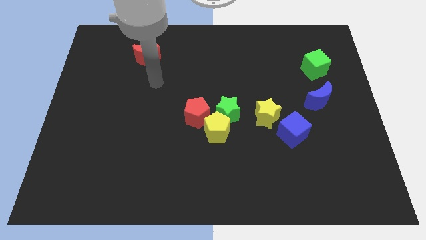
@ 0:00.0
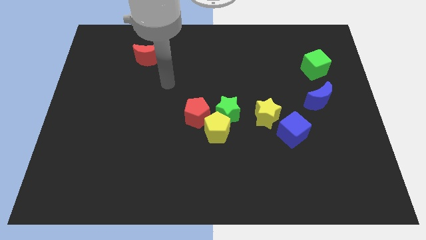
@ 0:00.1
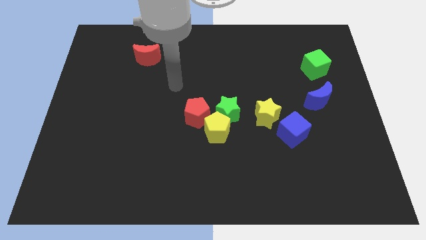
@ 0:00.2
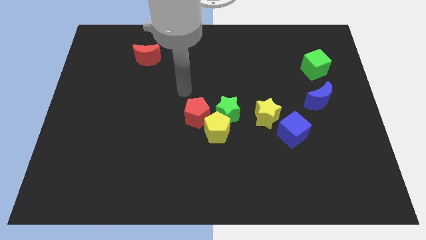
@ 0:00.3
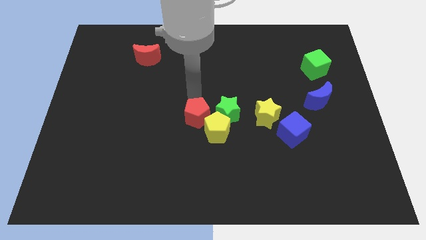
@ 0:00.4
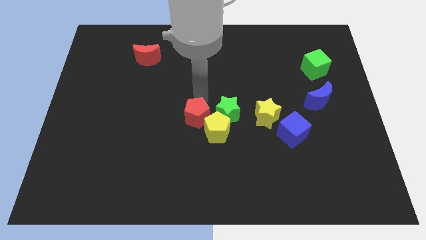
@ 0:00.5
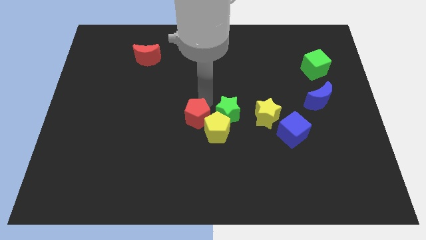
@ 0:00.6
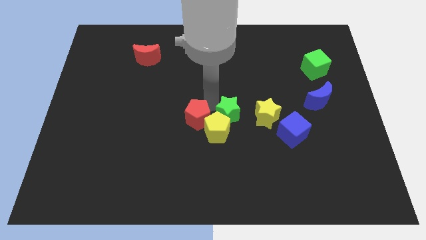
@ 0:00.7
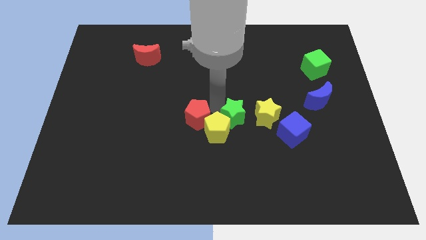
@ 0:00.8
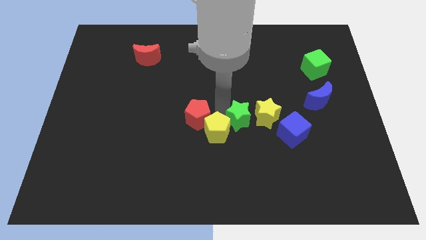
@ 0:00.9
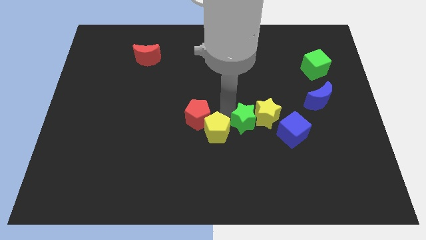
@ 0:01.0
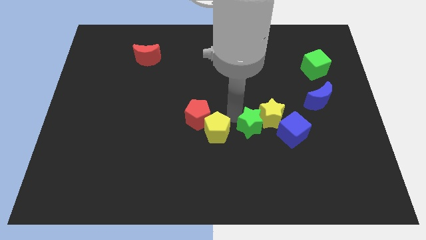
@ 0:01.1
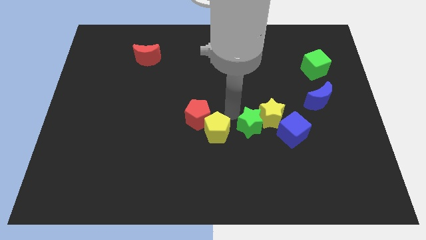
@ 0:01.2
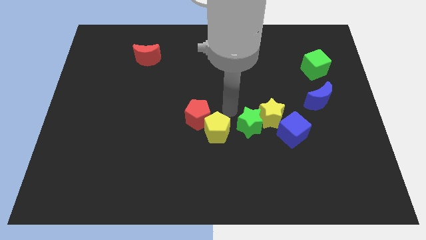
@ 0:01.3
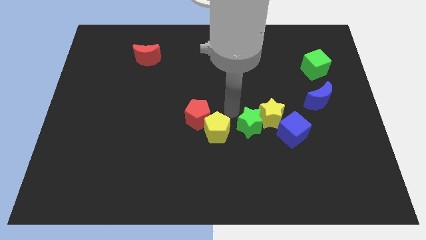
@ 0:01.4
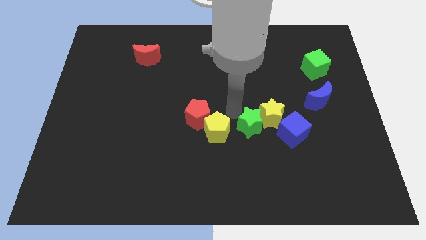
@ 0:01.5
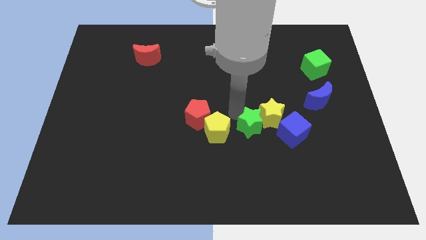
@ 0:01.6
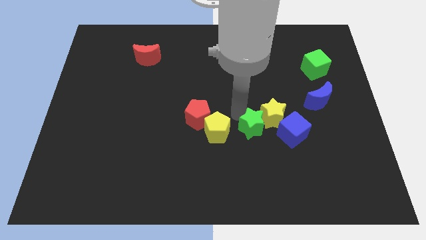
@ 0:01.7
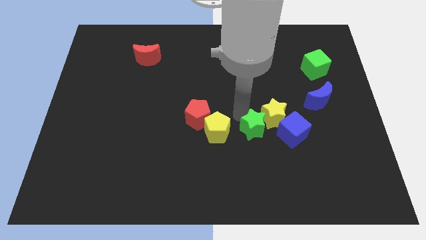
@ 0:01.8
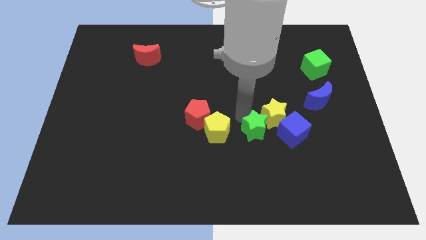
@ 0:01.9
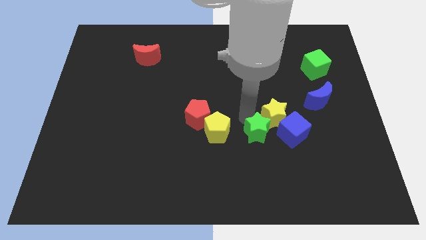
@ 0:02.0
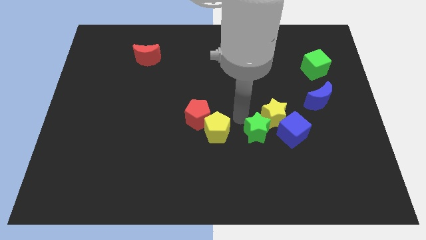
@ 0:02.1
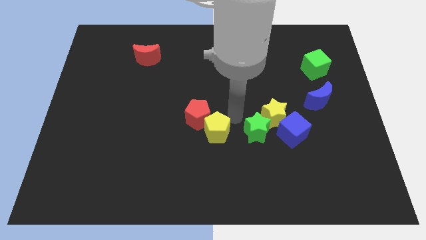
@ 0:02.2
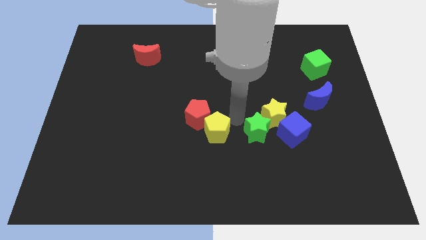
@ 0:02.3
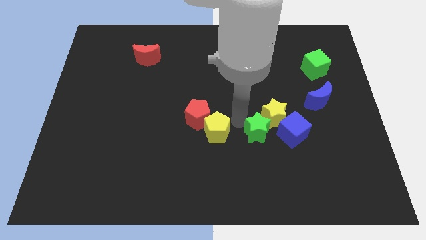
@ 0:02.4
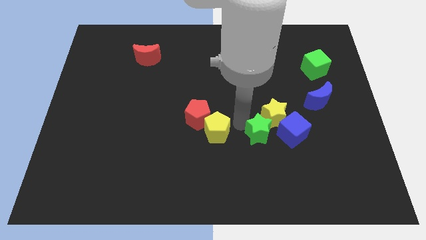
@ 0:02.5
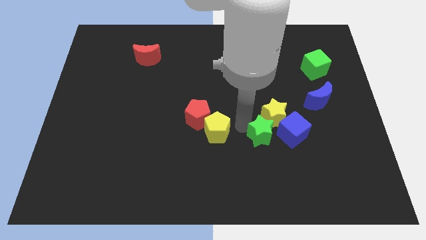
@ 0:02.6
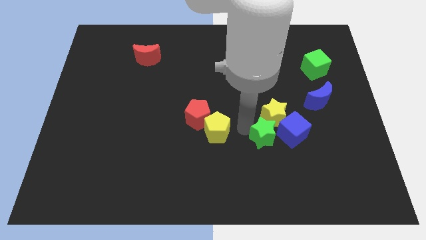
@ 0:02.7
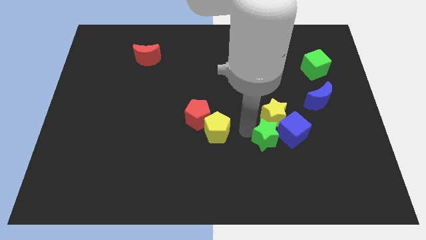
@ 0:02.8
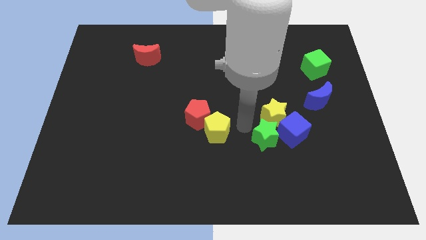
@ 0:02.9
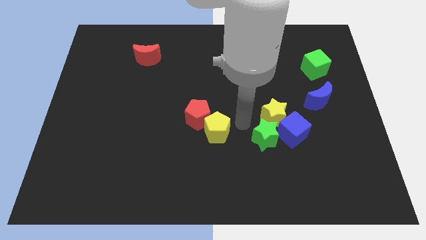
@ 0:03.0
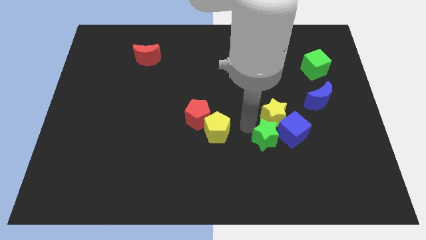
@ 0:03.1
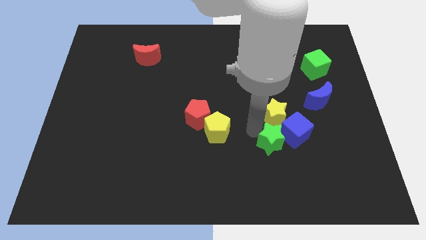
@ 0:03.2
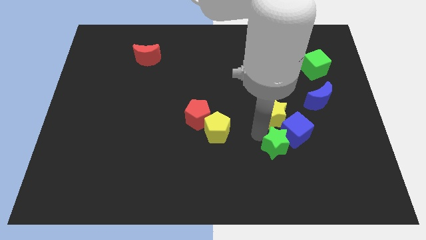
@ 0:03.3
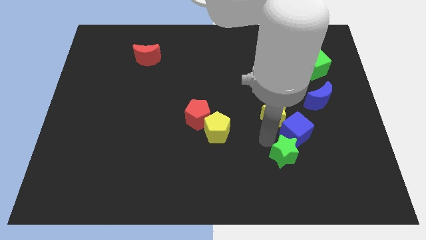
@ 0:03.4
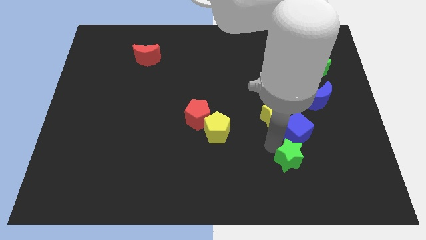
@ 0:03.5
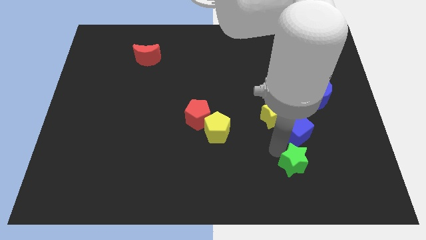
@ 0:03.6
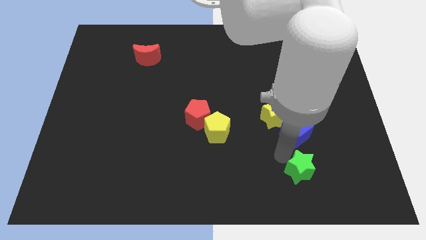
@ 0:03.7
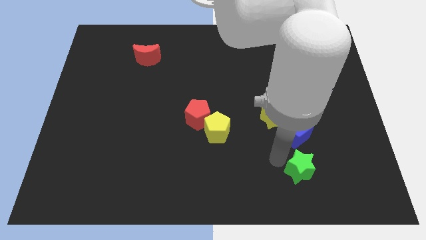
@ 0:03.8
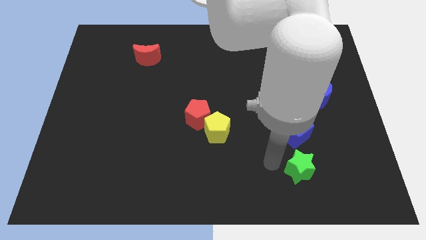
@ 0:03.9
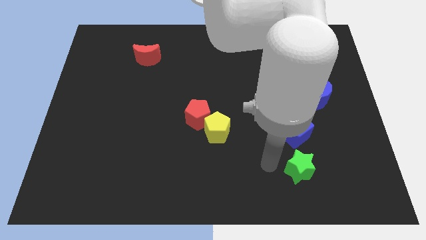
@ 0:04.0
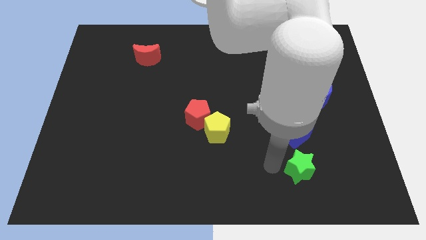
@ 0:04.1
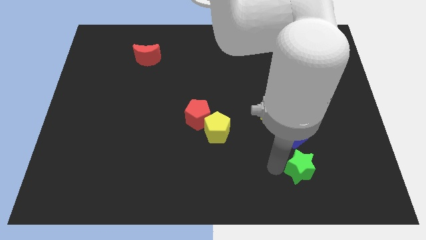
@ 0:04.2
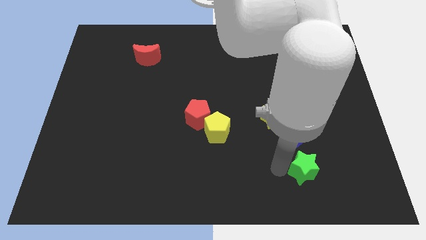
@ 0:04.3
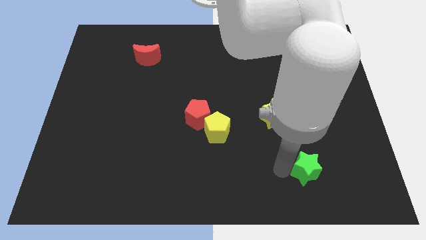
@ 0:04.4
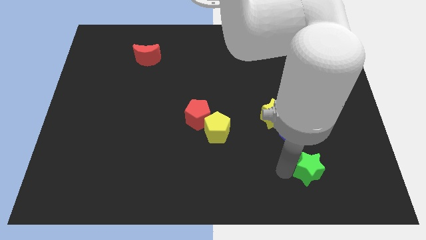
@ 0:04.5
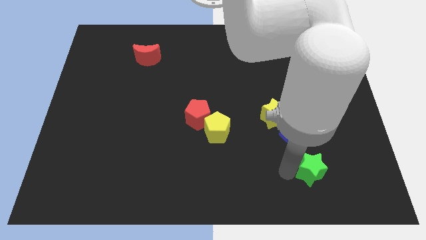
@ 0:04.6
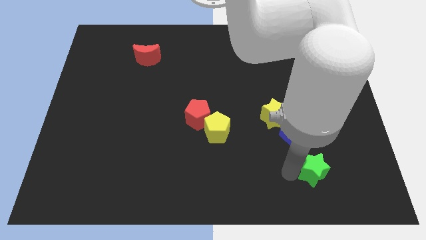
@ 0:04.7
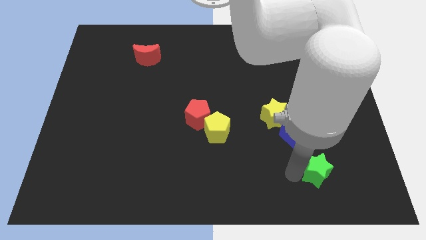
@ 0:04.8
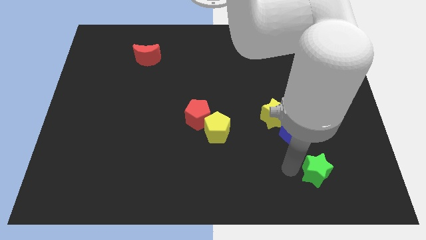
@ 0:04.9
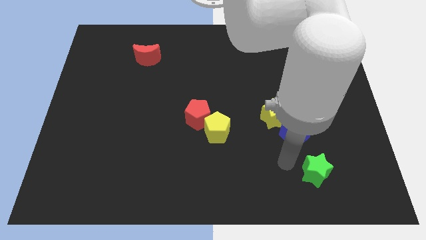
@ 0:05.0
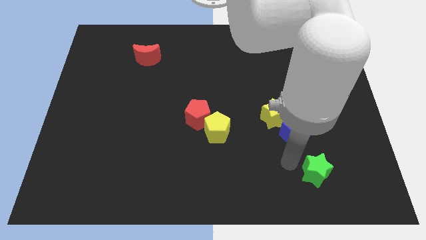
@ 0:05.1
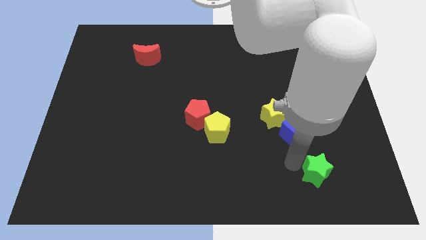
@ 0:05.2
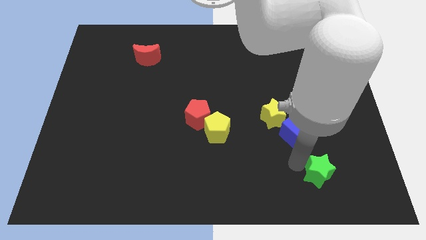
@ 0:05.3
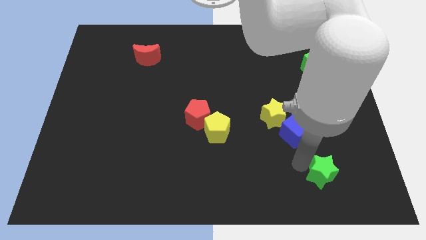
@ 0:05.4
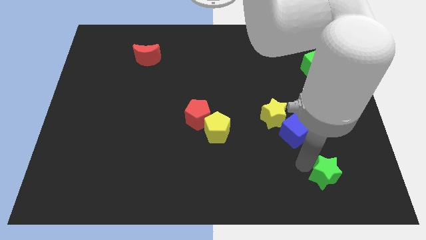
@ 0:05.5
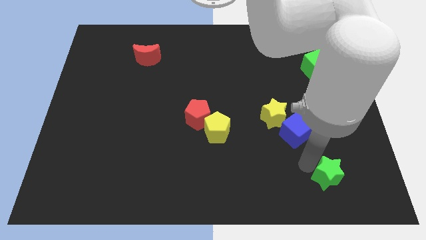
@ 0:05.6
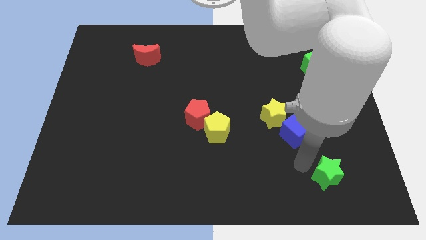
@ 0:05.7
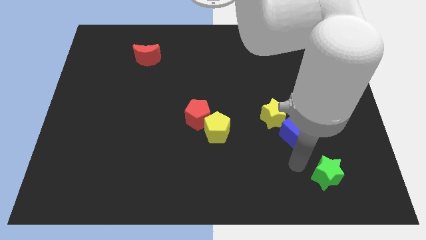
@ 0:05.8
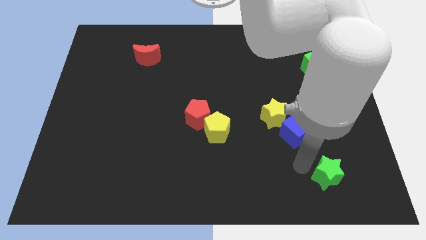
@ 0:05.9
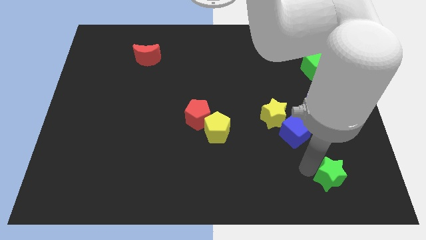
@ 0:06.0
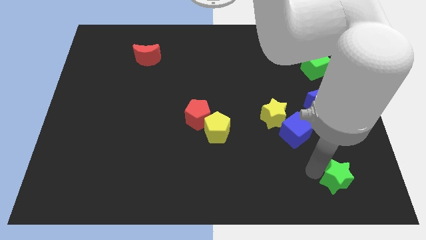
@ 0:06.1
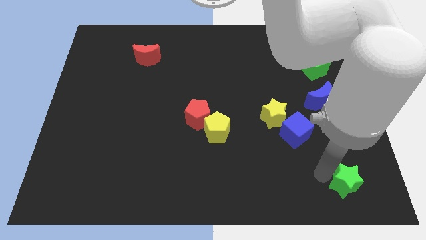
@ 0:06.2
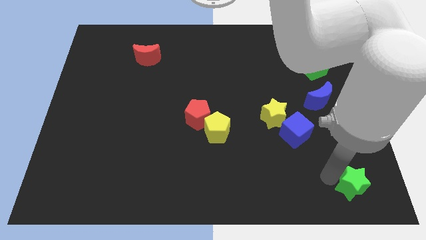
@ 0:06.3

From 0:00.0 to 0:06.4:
push the green star to the bottom right corner
